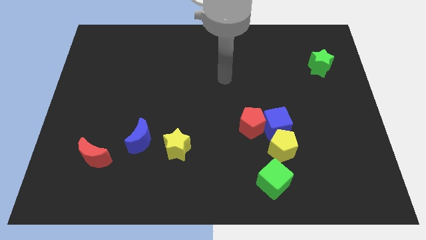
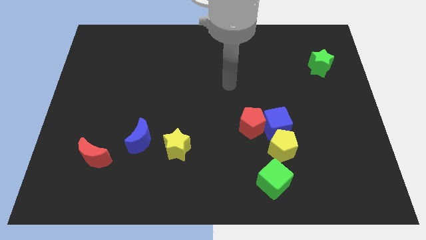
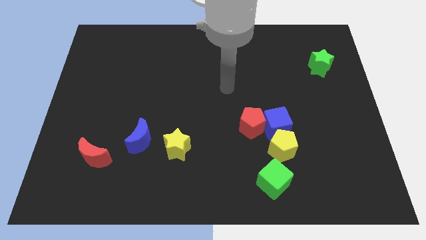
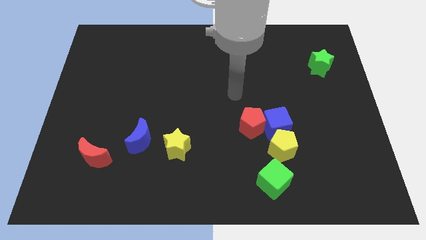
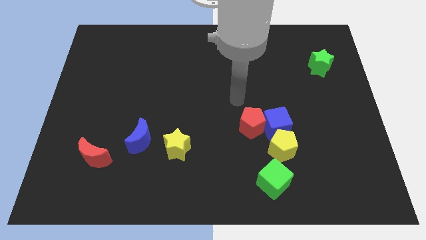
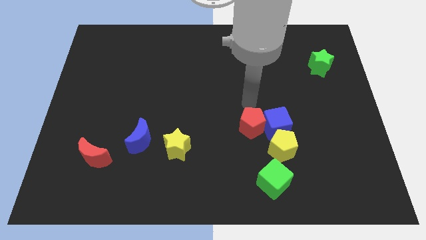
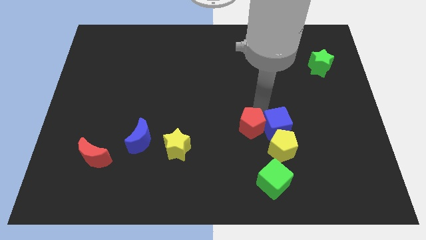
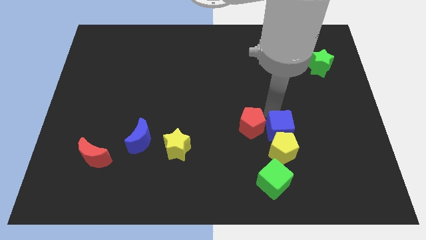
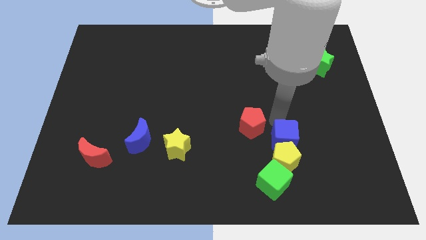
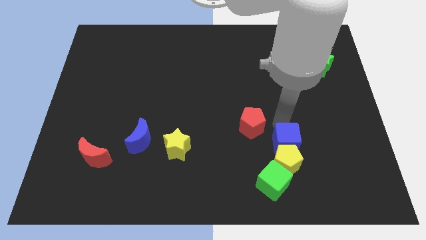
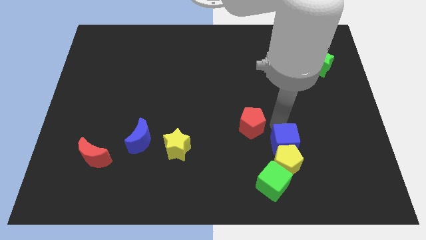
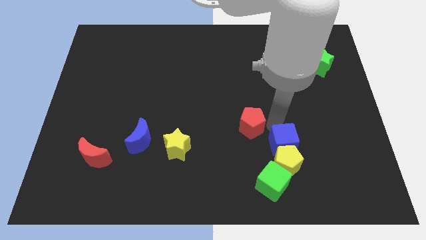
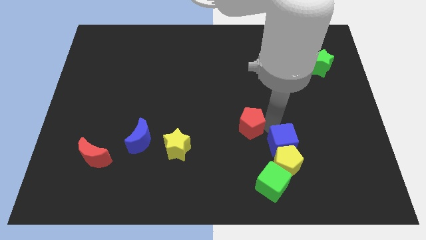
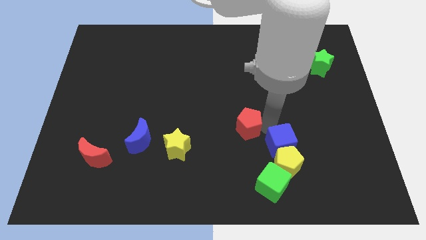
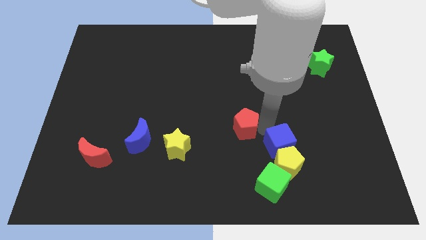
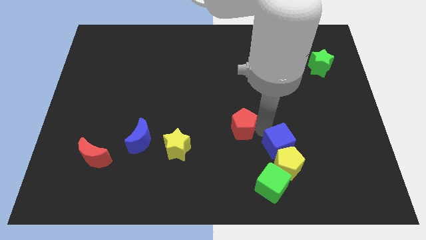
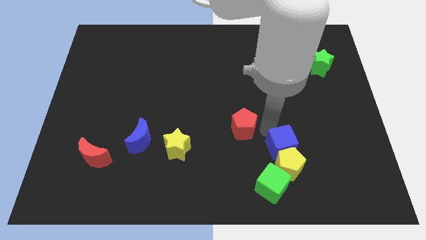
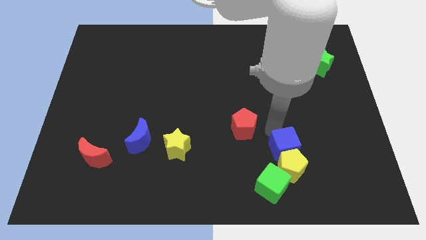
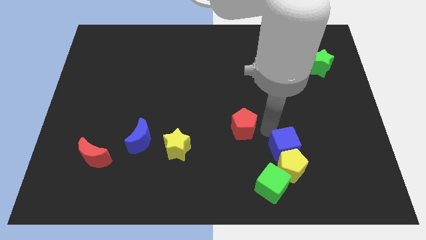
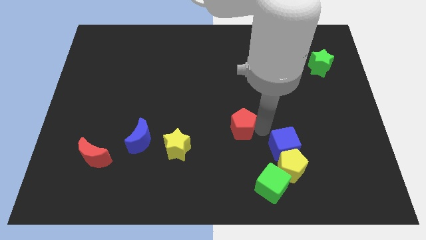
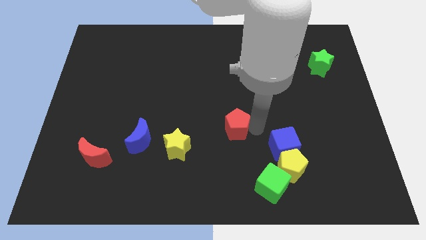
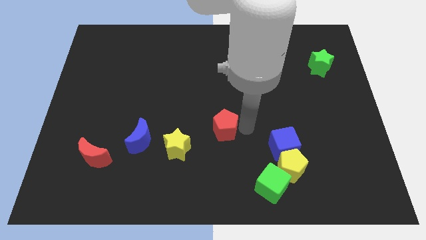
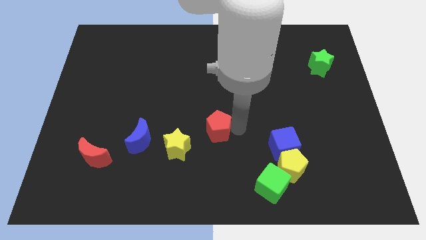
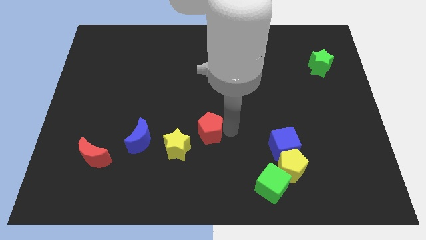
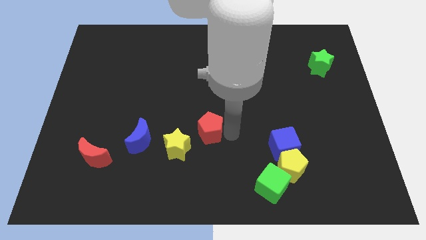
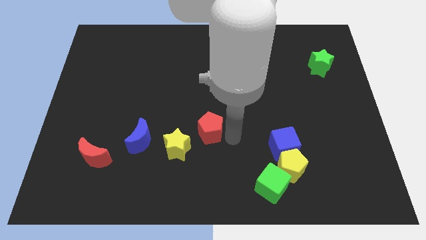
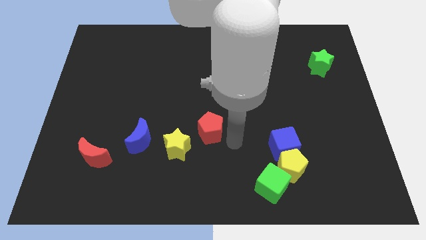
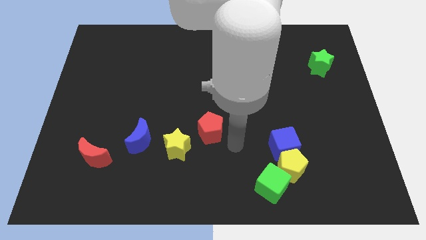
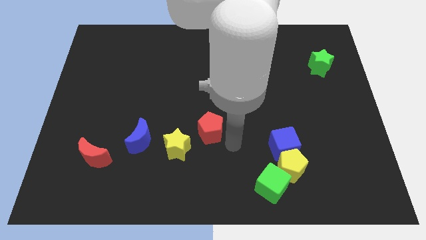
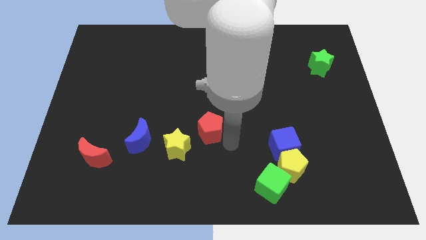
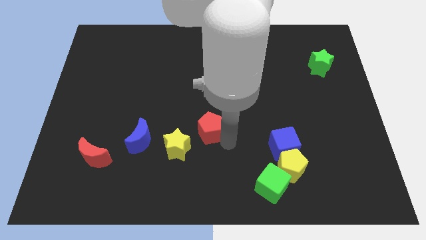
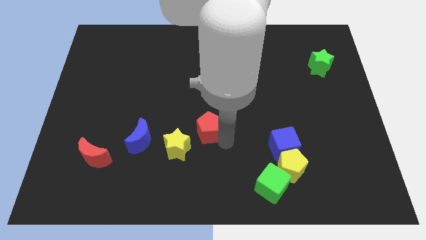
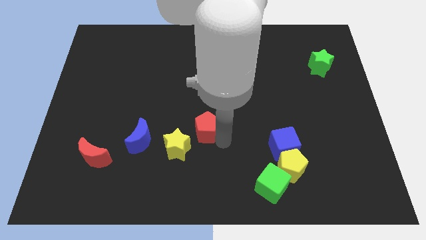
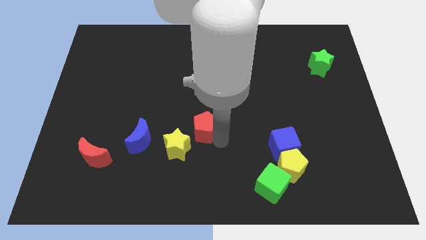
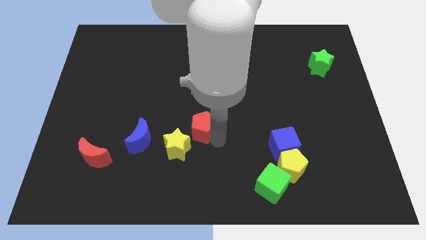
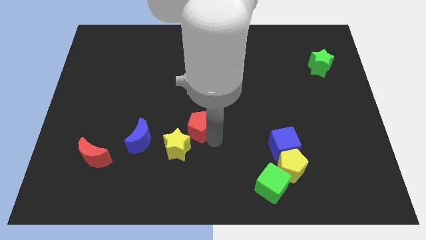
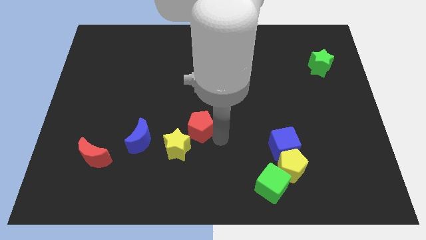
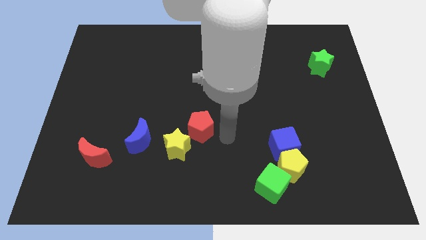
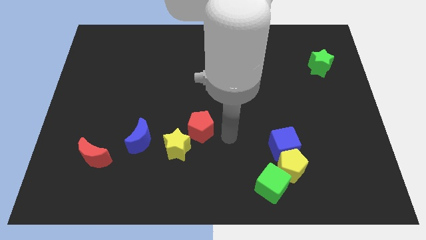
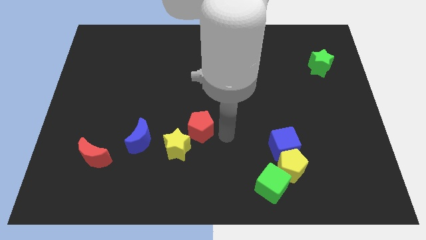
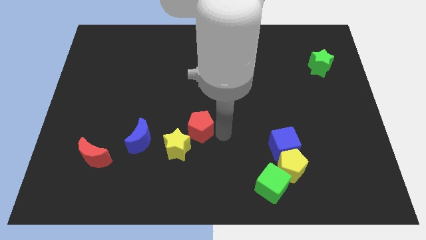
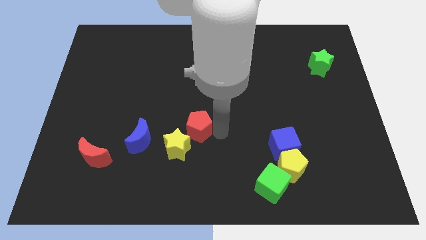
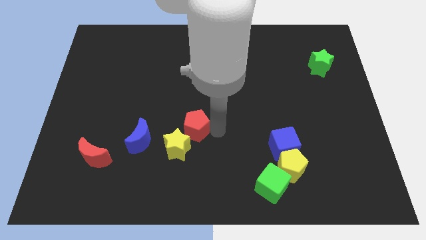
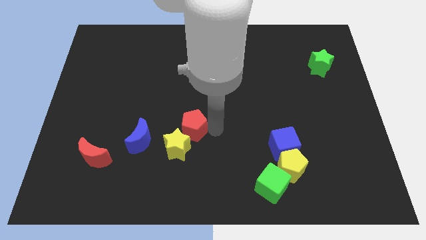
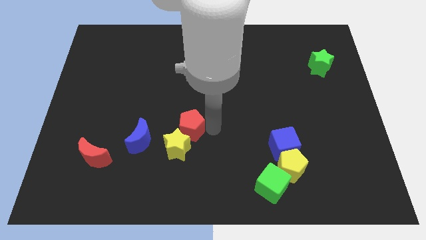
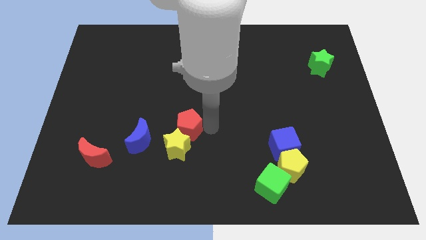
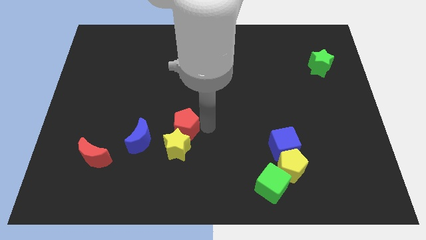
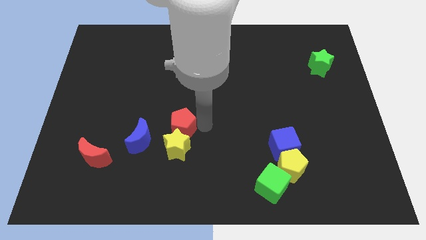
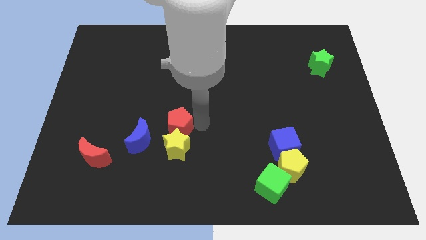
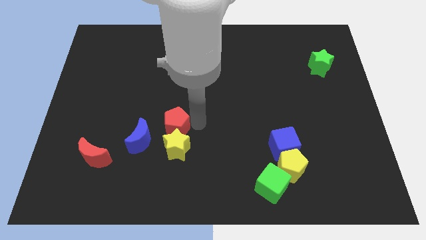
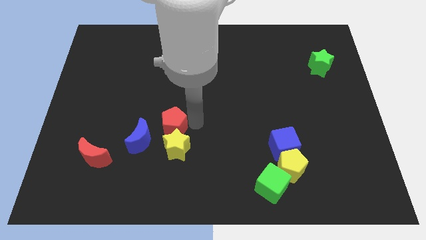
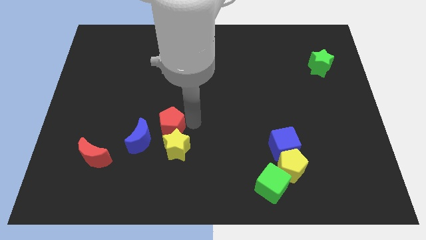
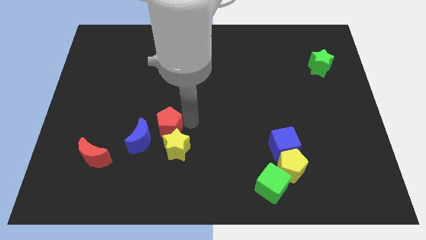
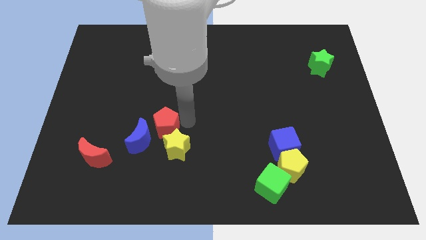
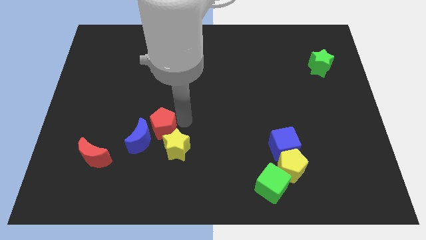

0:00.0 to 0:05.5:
move the red pentagon left

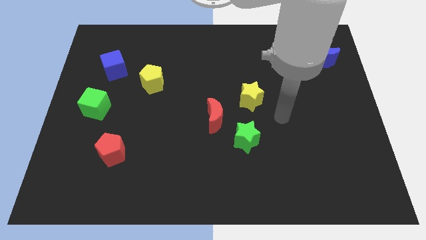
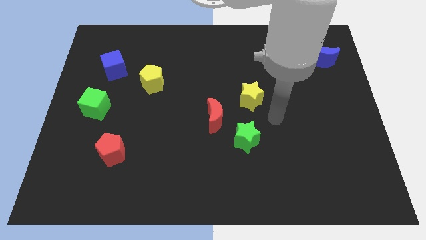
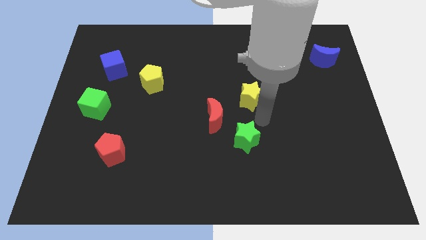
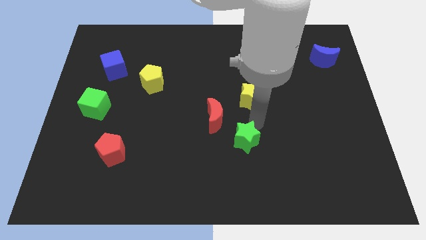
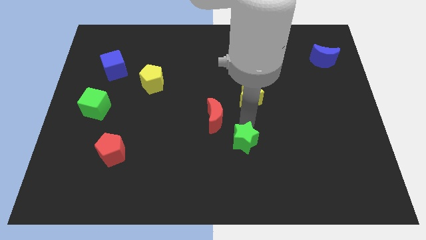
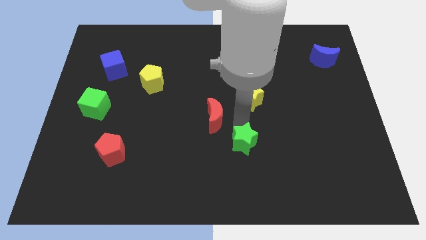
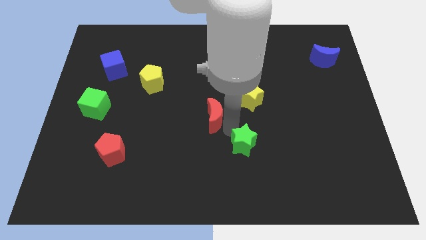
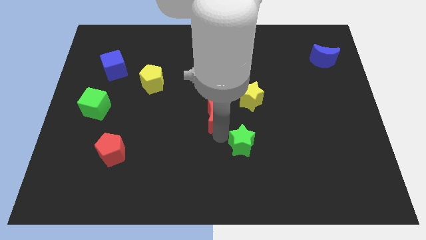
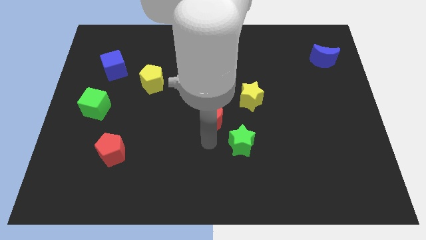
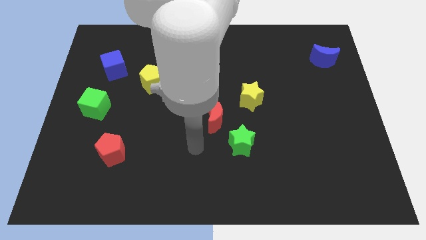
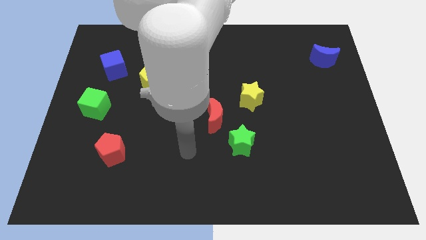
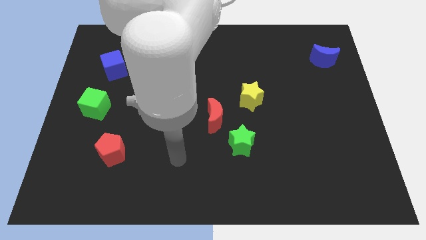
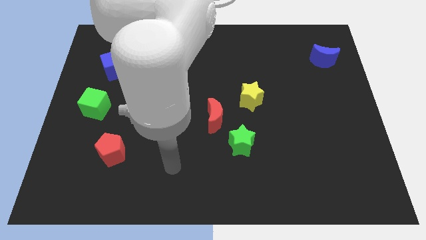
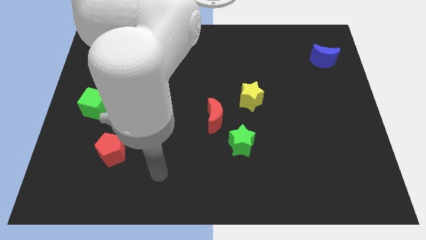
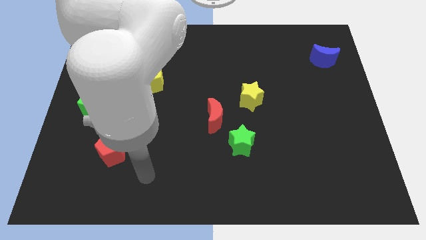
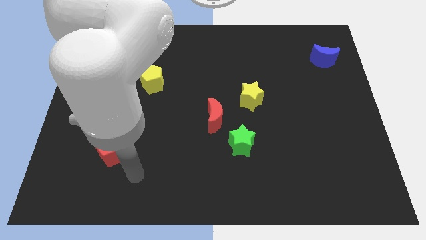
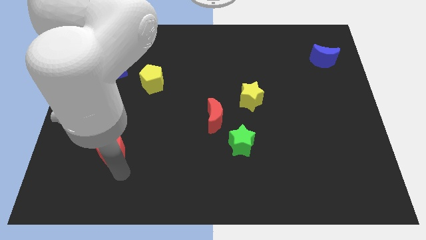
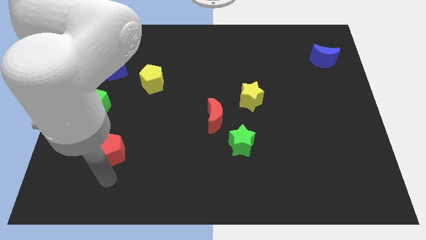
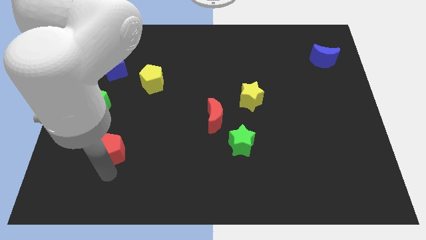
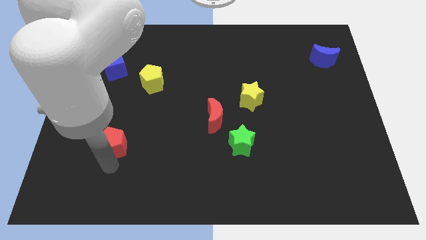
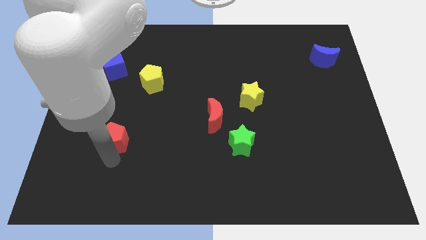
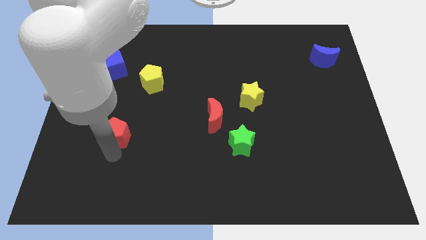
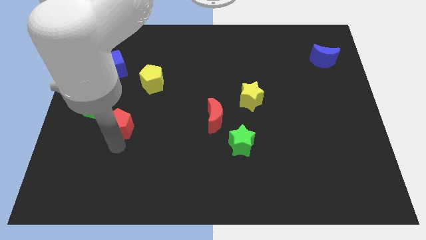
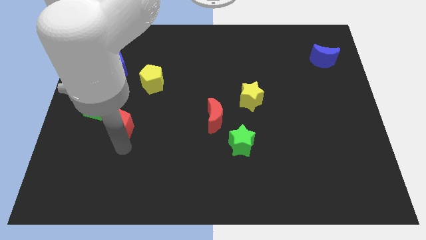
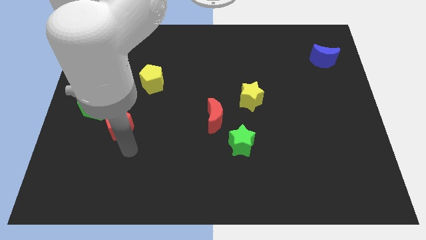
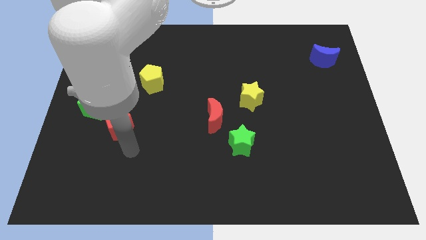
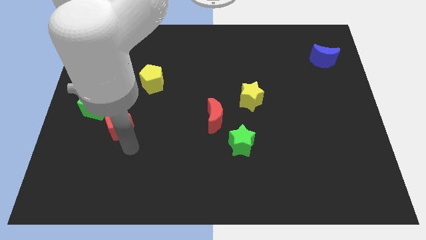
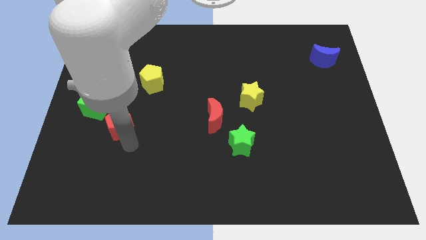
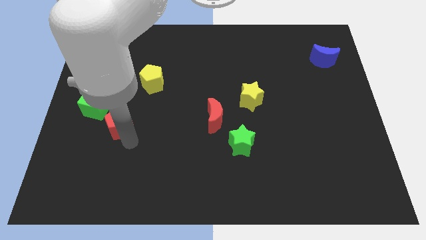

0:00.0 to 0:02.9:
move the red pentagon a little upwards
